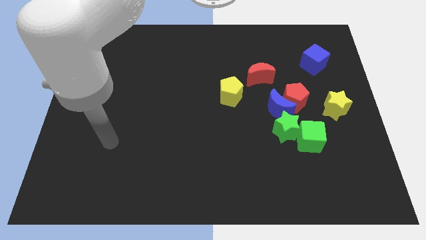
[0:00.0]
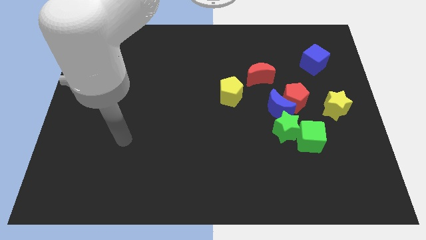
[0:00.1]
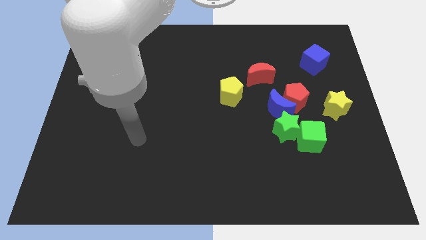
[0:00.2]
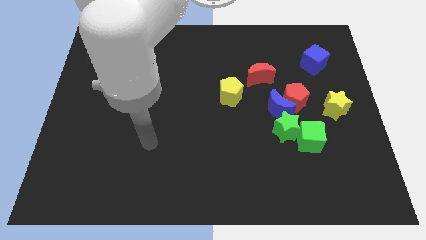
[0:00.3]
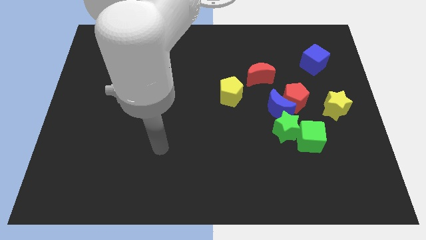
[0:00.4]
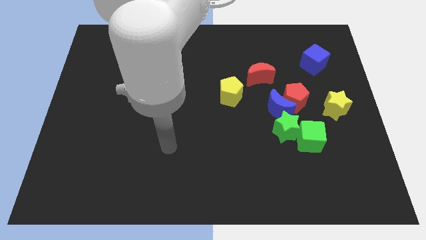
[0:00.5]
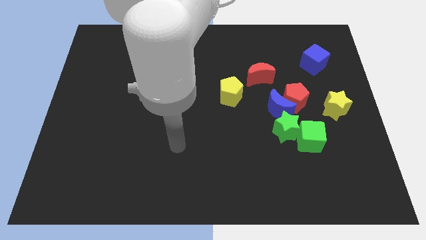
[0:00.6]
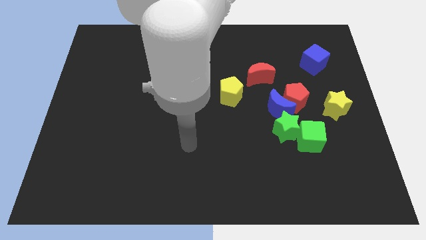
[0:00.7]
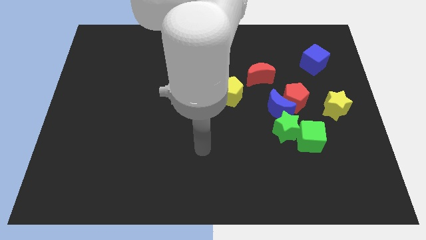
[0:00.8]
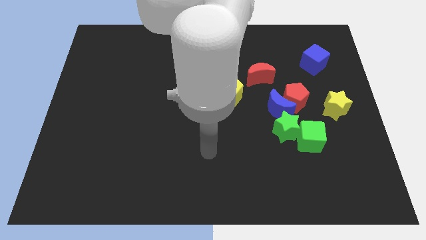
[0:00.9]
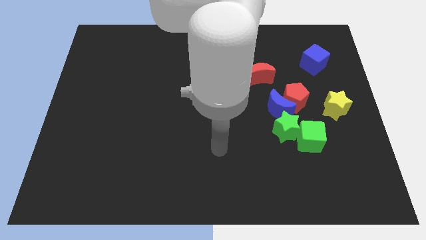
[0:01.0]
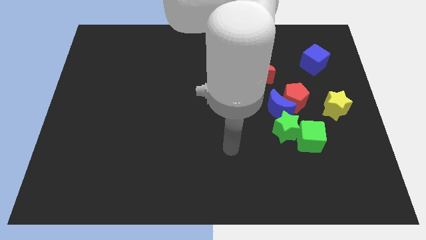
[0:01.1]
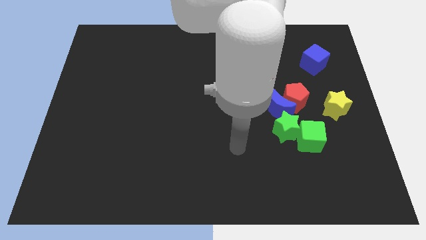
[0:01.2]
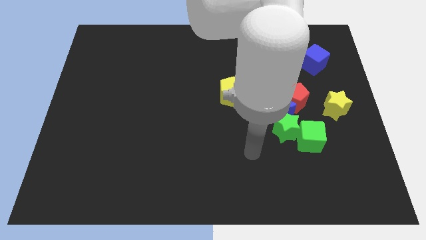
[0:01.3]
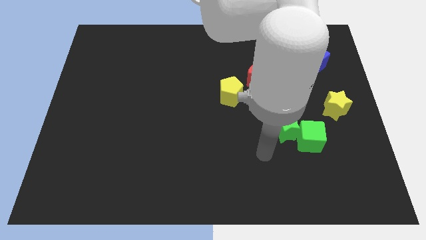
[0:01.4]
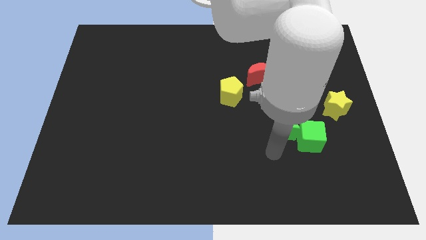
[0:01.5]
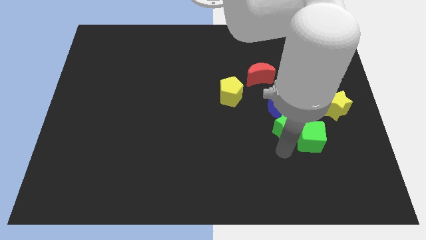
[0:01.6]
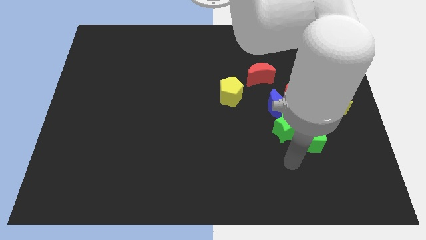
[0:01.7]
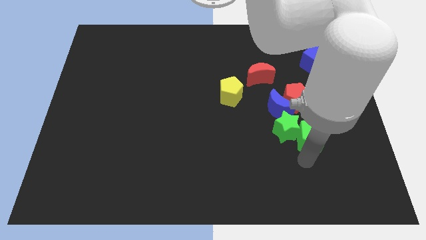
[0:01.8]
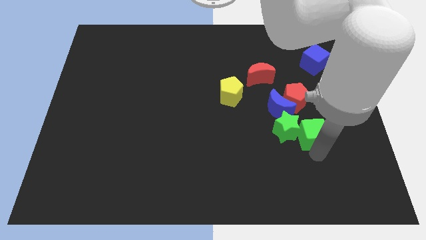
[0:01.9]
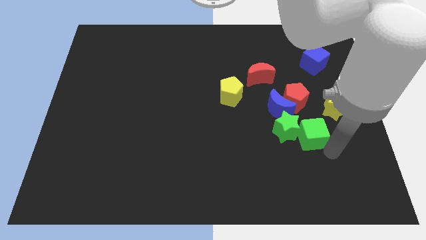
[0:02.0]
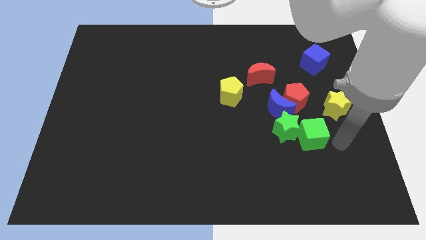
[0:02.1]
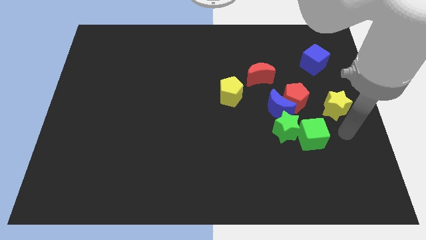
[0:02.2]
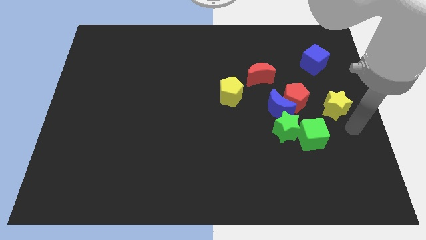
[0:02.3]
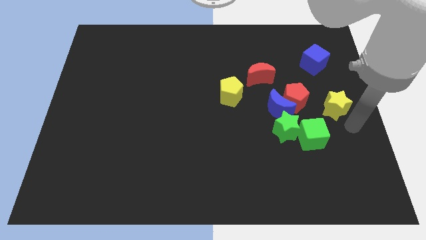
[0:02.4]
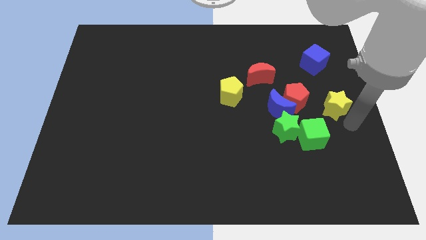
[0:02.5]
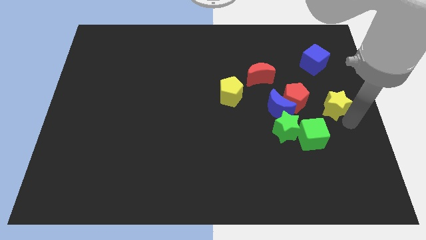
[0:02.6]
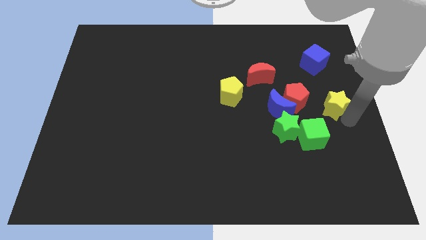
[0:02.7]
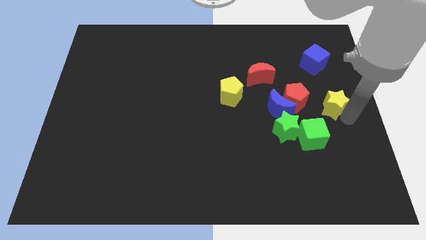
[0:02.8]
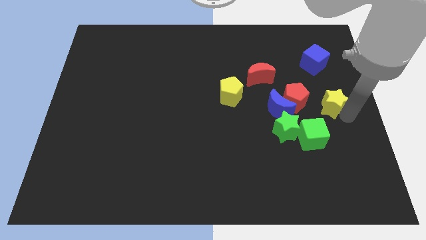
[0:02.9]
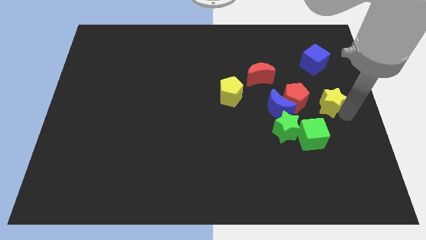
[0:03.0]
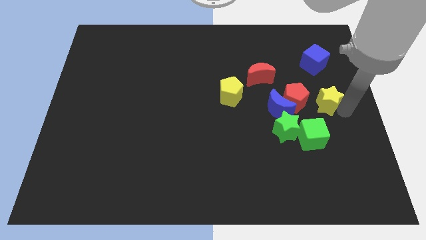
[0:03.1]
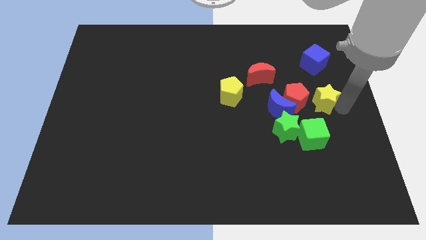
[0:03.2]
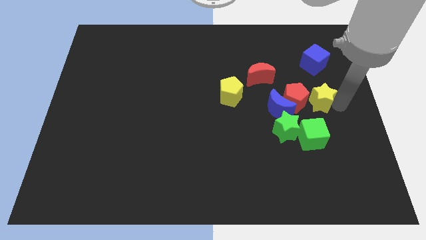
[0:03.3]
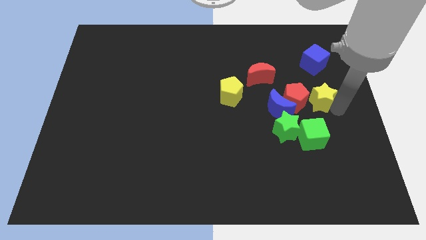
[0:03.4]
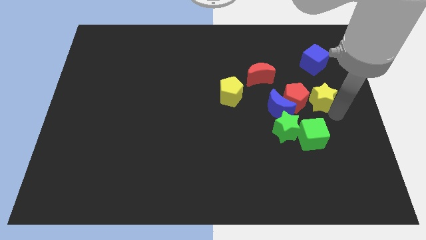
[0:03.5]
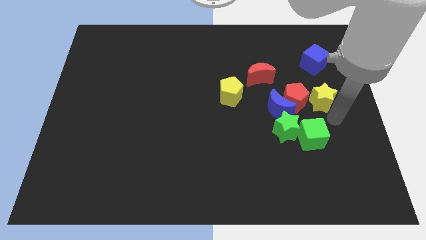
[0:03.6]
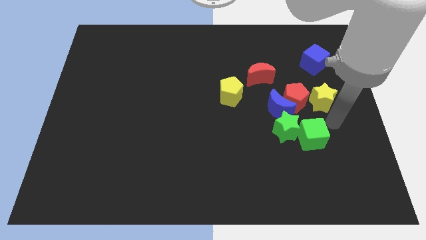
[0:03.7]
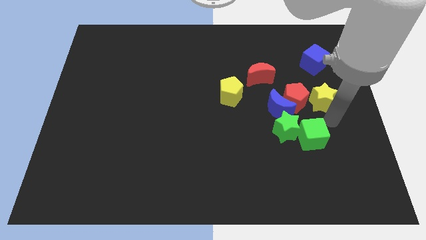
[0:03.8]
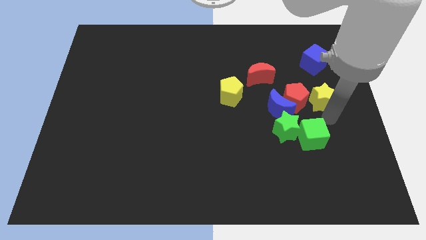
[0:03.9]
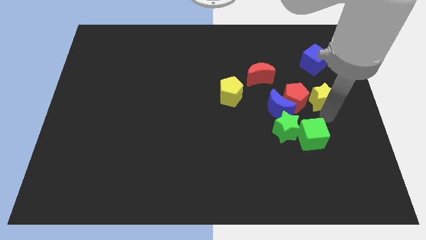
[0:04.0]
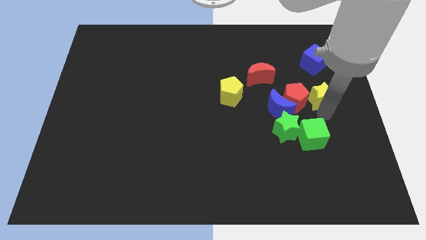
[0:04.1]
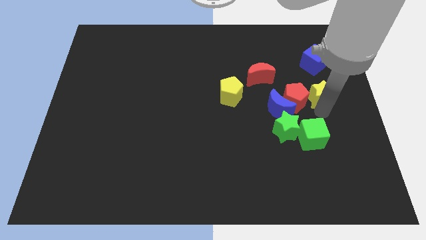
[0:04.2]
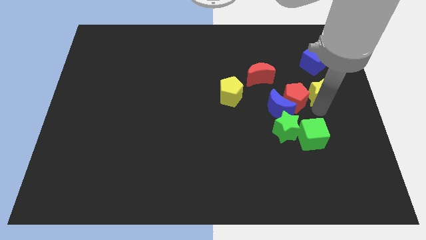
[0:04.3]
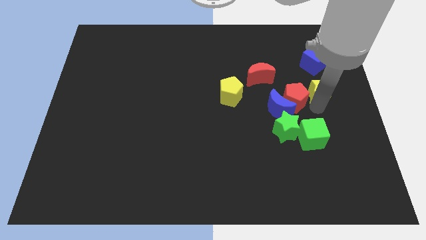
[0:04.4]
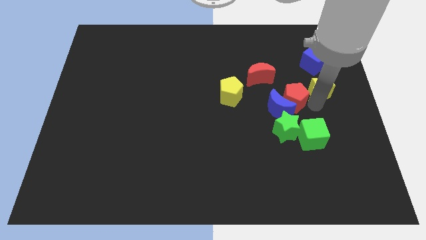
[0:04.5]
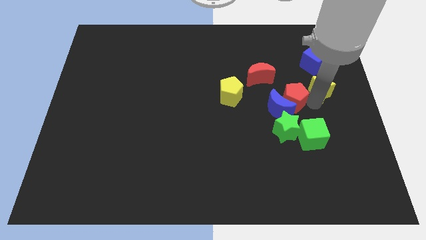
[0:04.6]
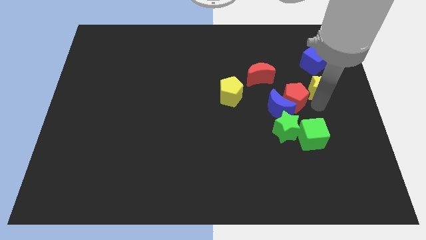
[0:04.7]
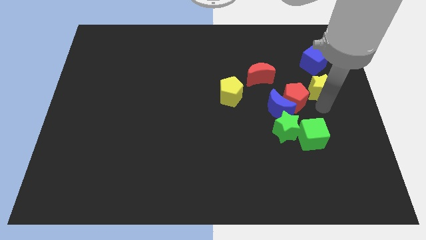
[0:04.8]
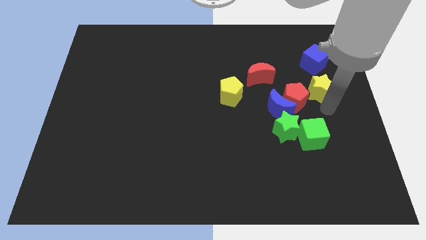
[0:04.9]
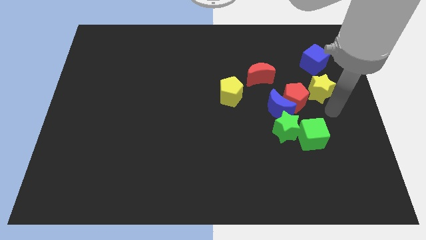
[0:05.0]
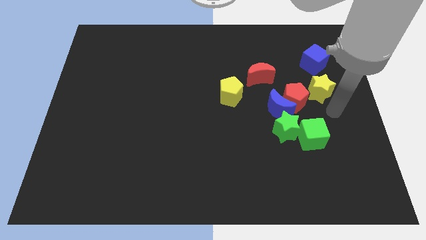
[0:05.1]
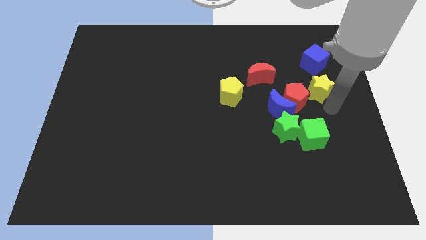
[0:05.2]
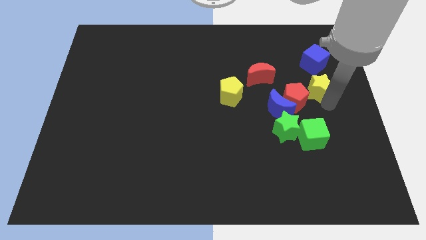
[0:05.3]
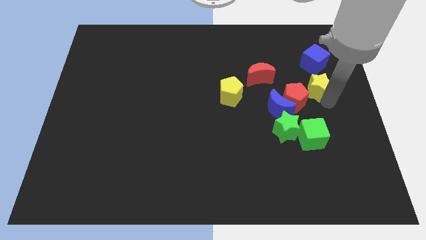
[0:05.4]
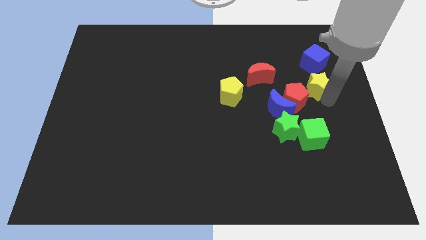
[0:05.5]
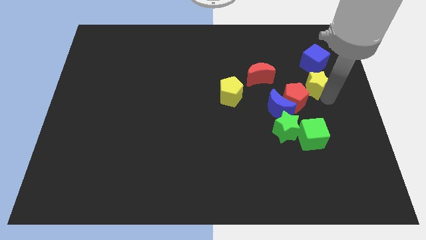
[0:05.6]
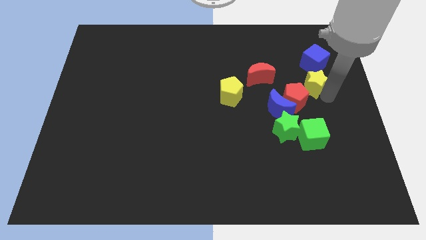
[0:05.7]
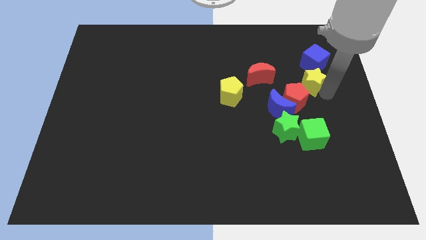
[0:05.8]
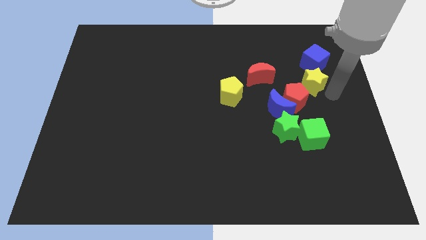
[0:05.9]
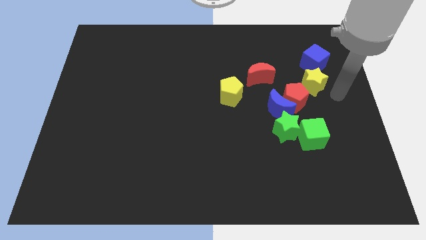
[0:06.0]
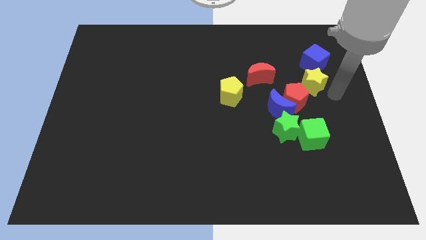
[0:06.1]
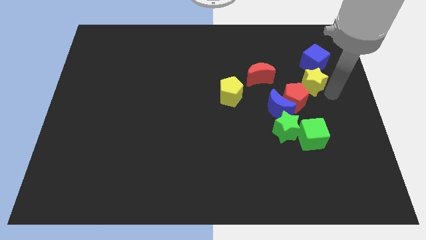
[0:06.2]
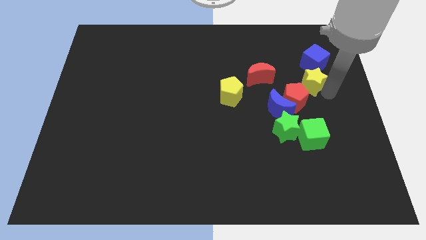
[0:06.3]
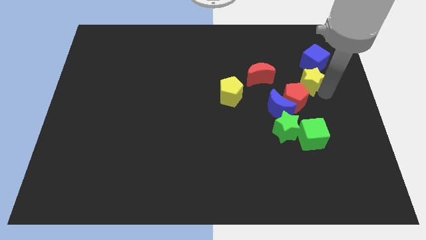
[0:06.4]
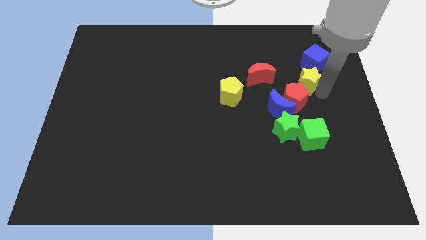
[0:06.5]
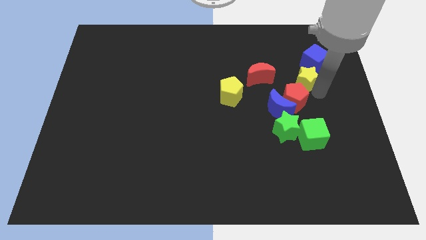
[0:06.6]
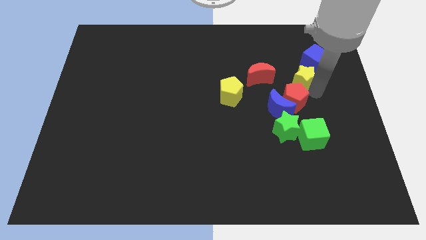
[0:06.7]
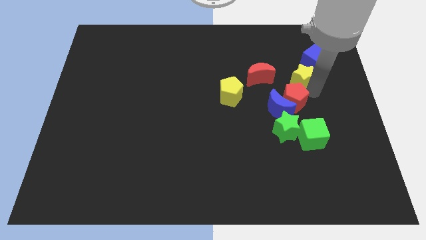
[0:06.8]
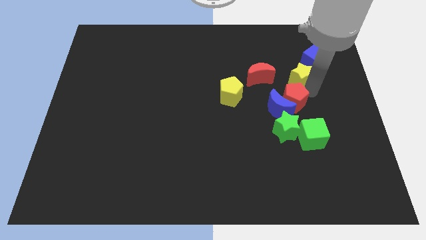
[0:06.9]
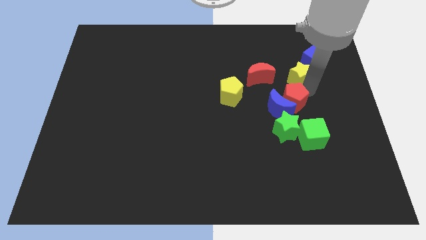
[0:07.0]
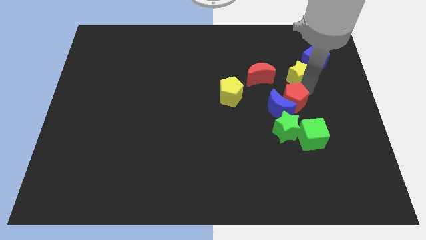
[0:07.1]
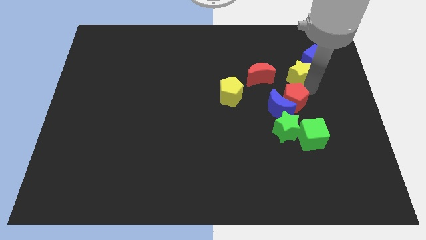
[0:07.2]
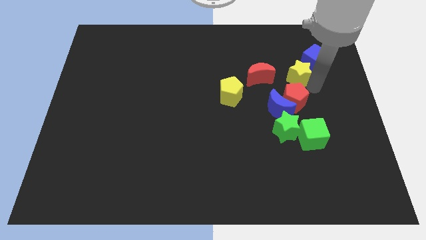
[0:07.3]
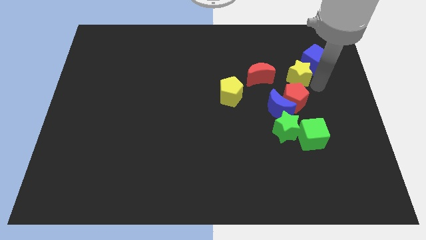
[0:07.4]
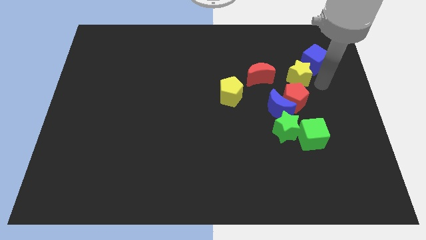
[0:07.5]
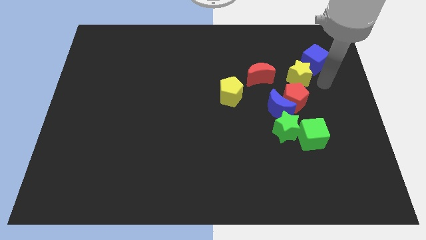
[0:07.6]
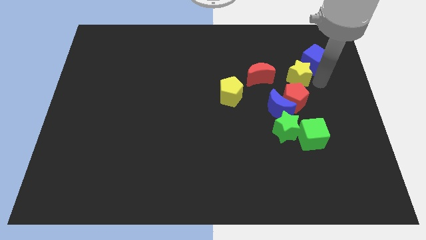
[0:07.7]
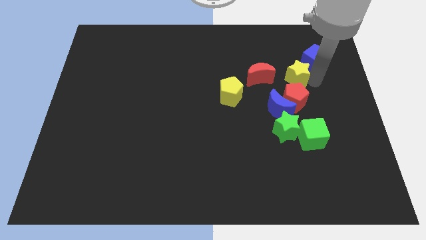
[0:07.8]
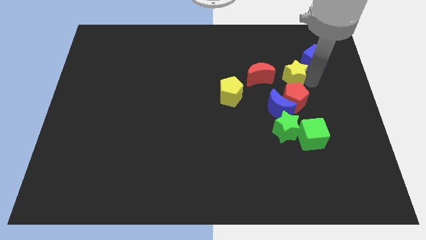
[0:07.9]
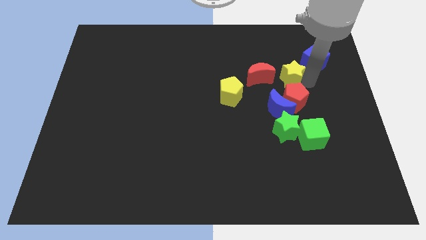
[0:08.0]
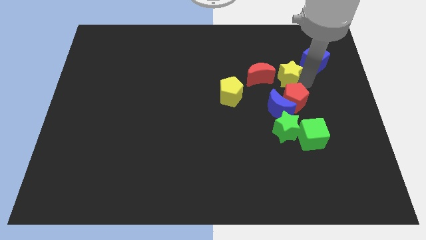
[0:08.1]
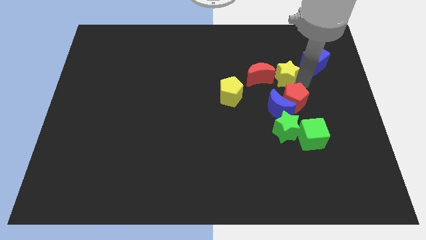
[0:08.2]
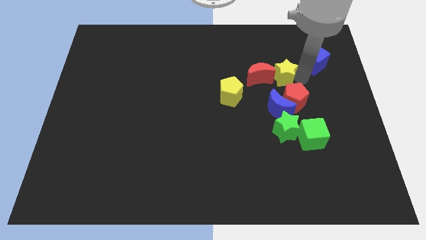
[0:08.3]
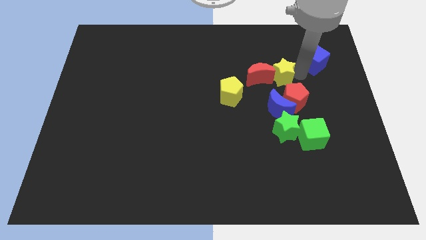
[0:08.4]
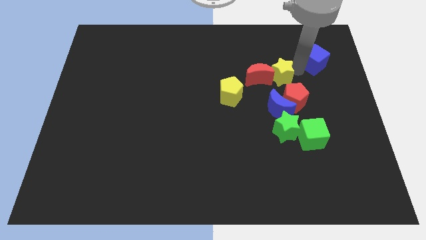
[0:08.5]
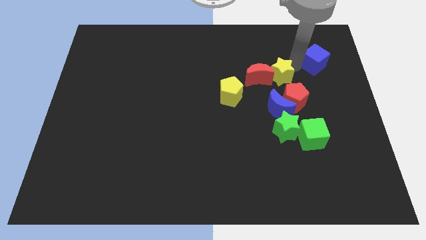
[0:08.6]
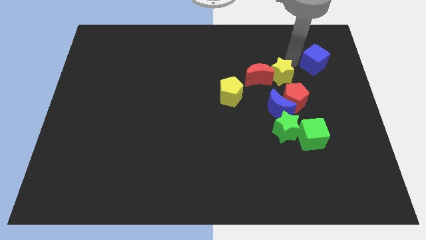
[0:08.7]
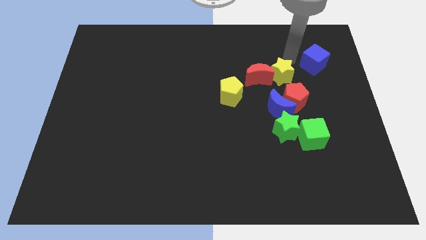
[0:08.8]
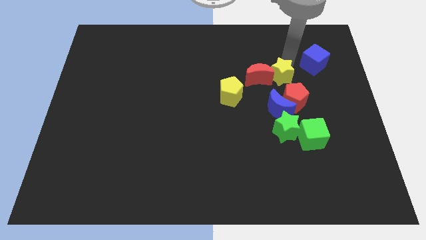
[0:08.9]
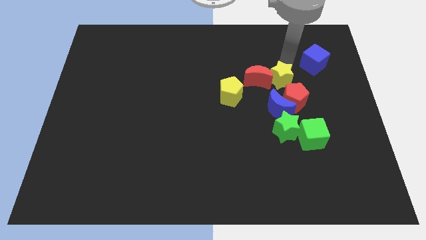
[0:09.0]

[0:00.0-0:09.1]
slightly move the yellow star to the left
